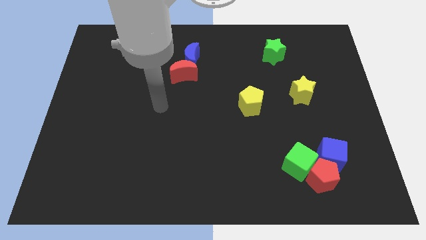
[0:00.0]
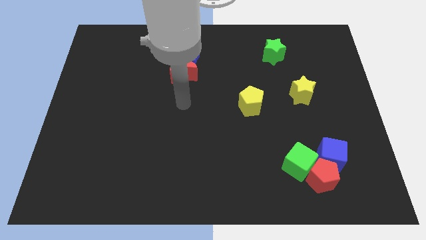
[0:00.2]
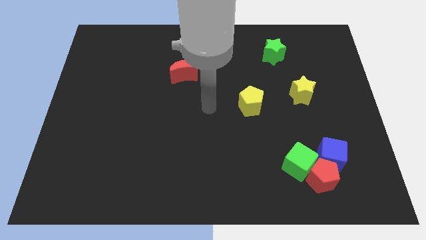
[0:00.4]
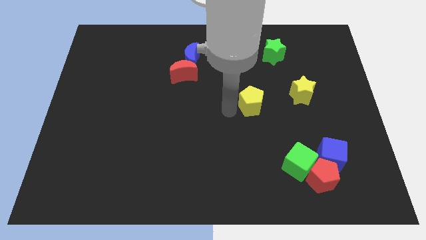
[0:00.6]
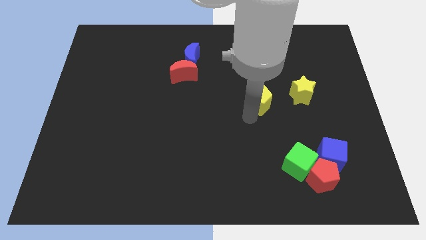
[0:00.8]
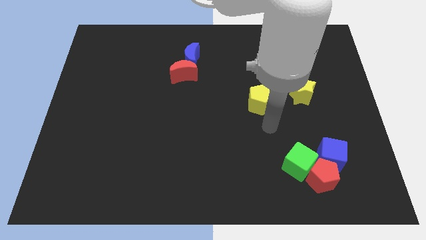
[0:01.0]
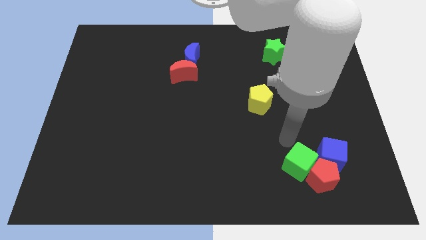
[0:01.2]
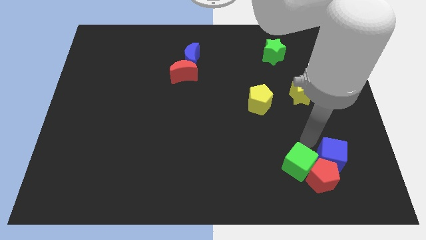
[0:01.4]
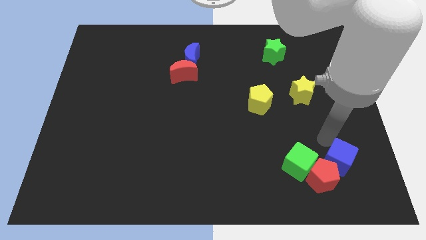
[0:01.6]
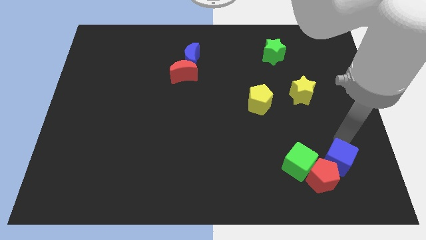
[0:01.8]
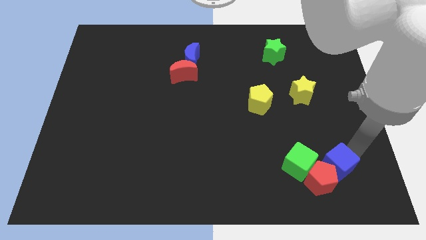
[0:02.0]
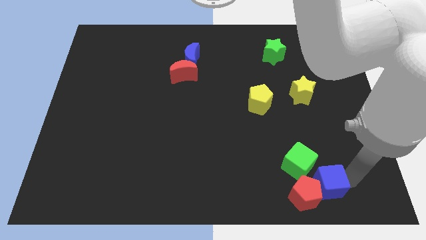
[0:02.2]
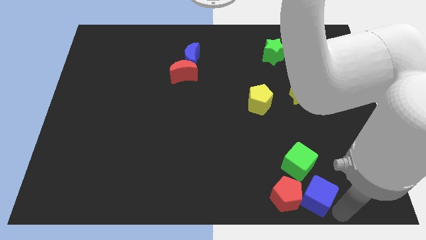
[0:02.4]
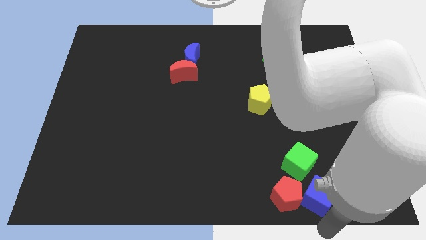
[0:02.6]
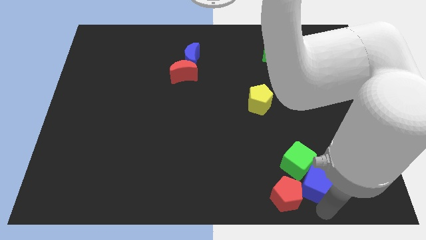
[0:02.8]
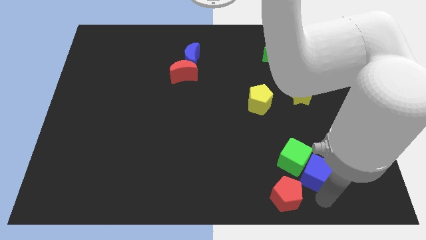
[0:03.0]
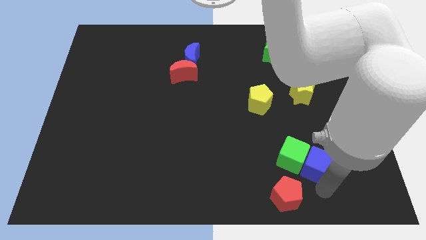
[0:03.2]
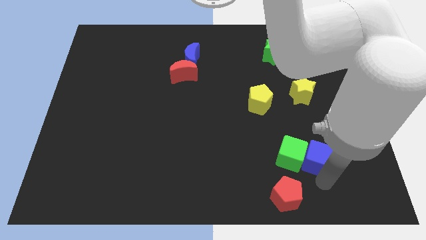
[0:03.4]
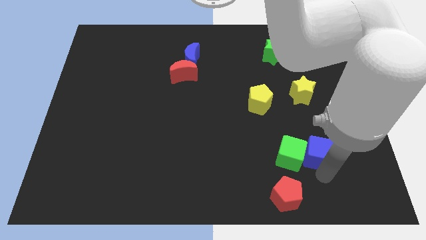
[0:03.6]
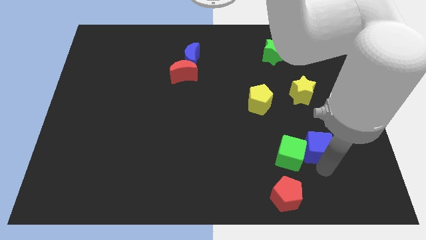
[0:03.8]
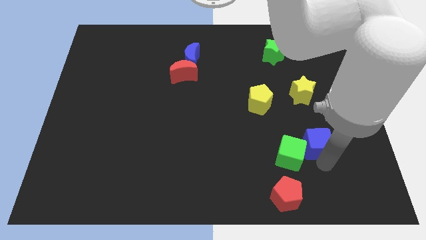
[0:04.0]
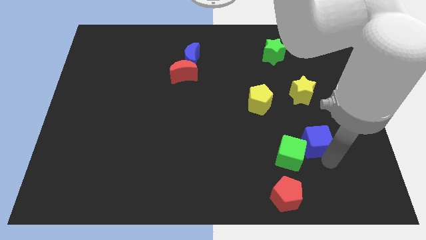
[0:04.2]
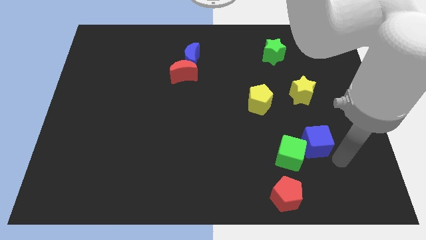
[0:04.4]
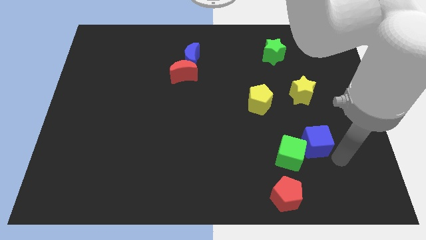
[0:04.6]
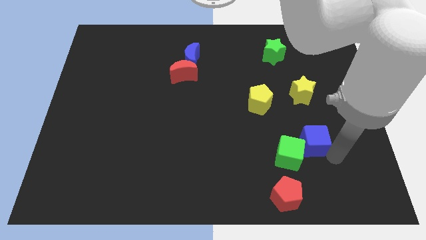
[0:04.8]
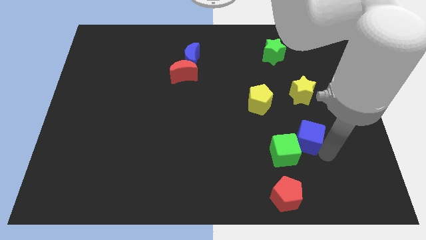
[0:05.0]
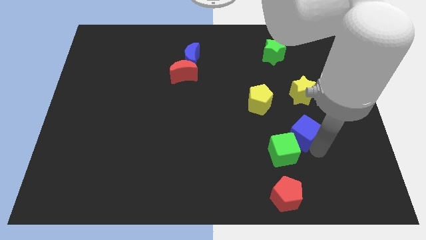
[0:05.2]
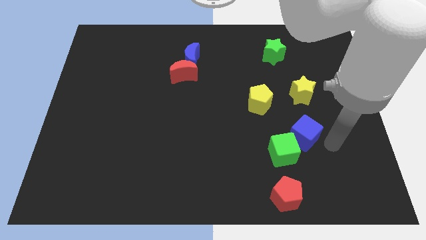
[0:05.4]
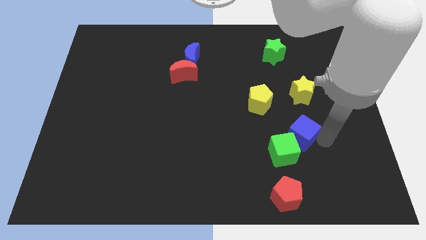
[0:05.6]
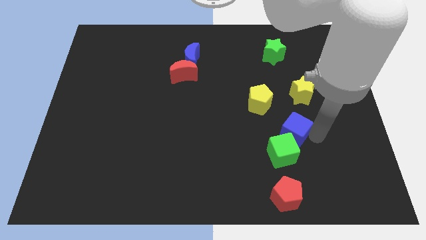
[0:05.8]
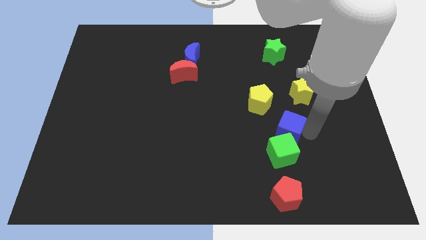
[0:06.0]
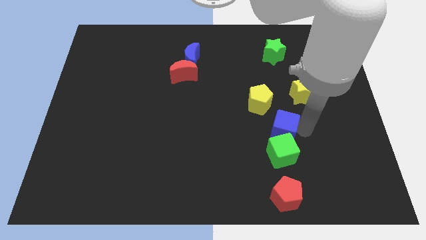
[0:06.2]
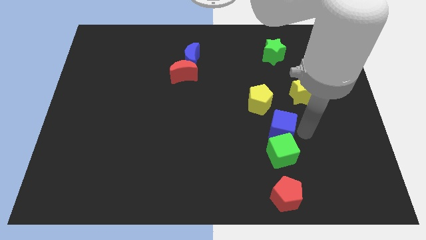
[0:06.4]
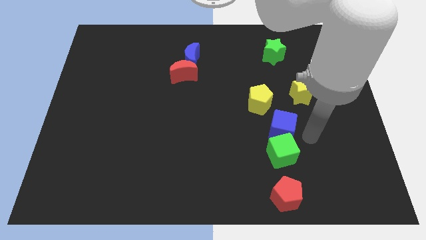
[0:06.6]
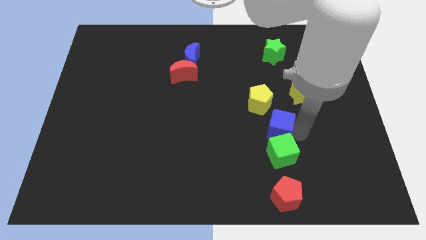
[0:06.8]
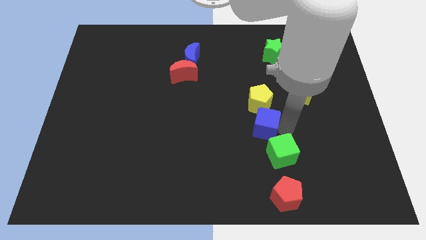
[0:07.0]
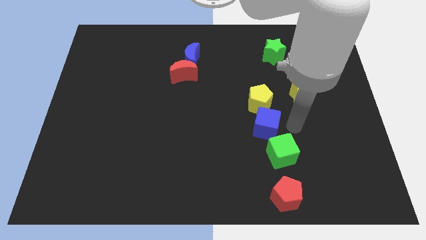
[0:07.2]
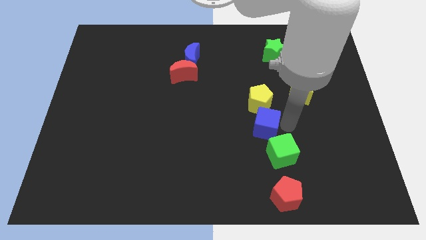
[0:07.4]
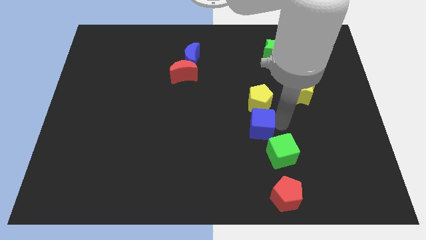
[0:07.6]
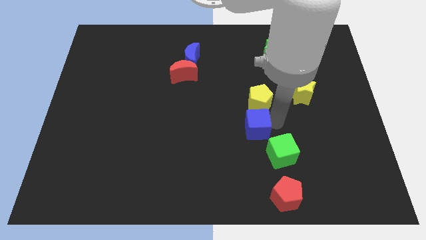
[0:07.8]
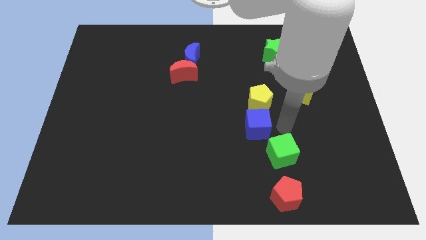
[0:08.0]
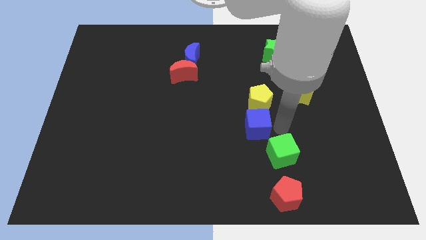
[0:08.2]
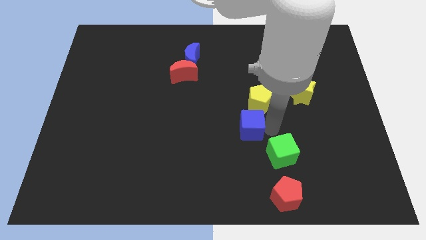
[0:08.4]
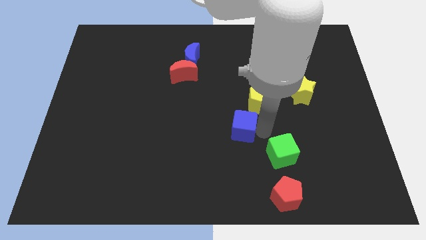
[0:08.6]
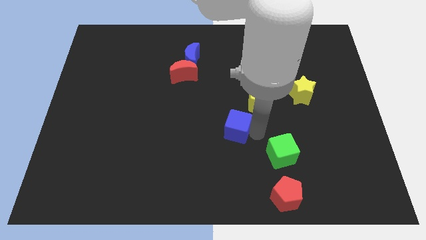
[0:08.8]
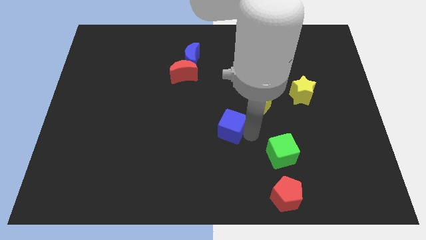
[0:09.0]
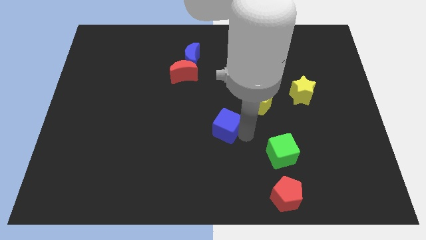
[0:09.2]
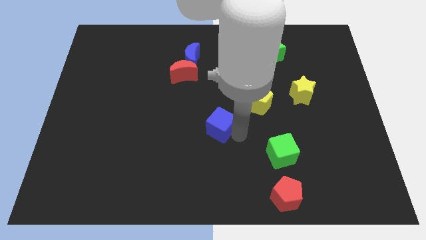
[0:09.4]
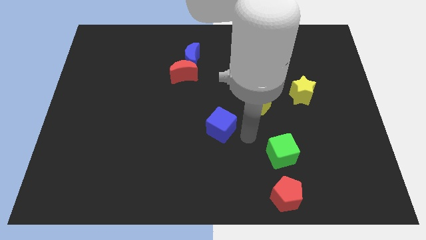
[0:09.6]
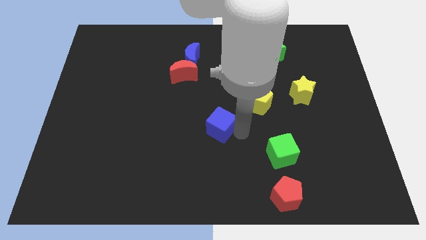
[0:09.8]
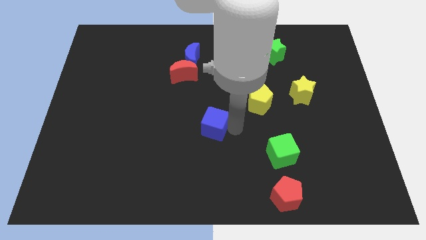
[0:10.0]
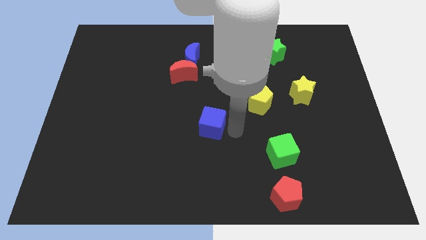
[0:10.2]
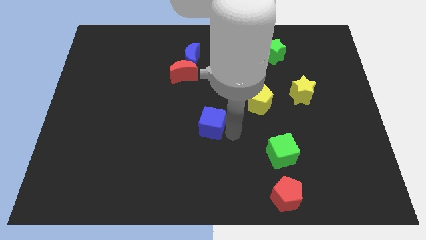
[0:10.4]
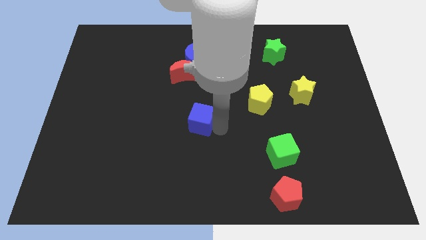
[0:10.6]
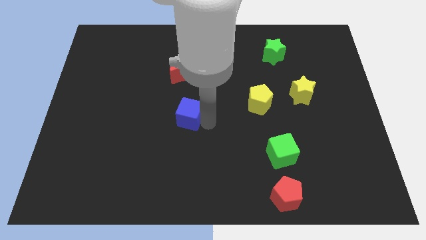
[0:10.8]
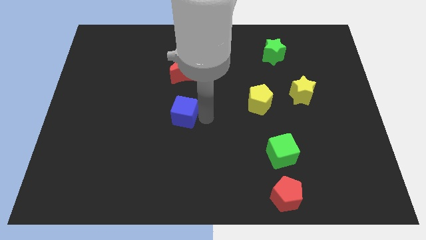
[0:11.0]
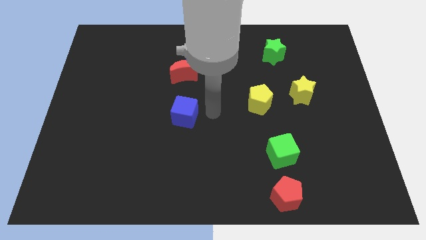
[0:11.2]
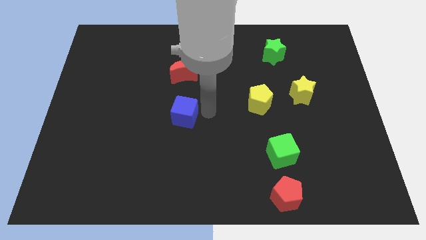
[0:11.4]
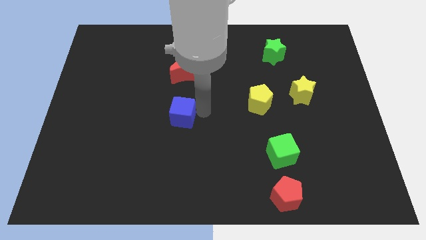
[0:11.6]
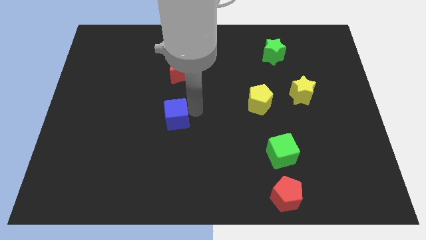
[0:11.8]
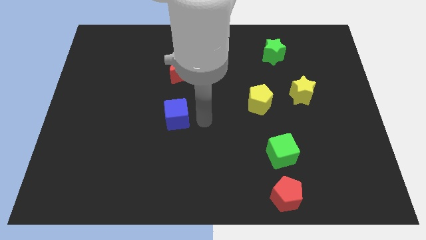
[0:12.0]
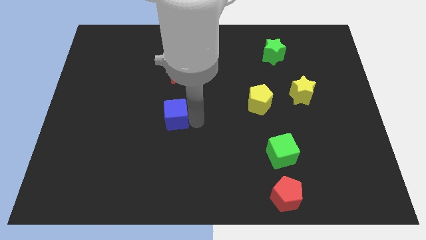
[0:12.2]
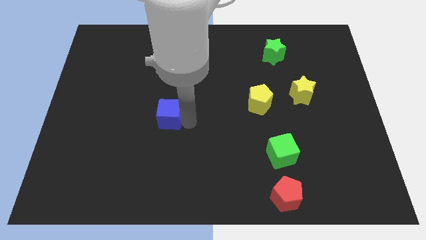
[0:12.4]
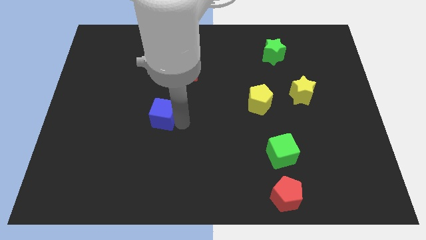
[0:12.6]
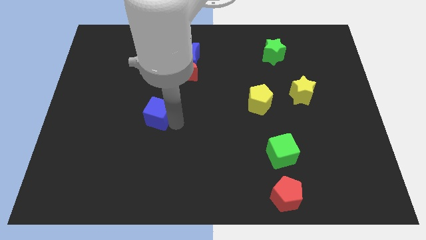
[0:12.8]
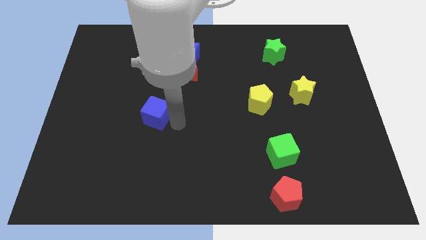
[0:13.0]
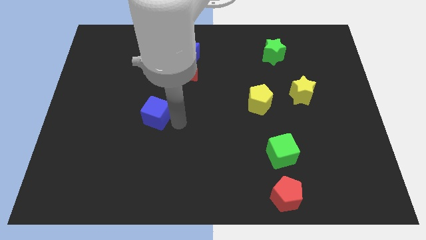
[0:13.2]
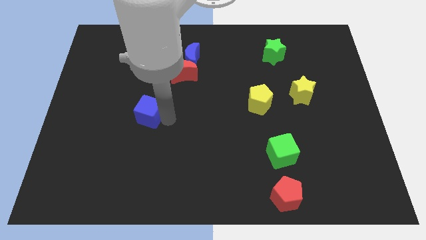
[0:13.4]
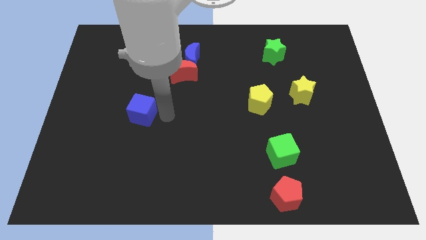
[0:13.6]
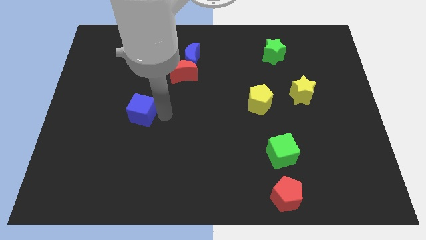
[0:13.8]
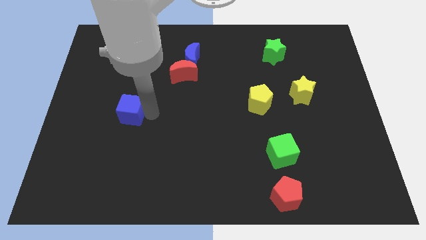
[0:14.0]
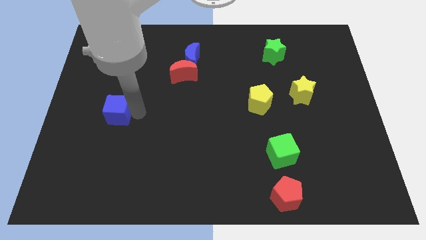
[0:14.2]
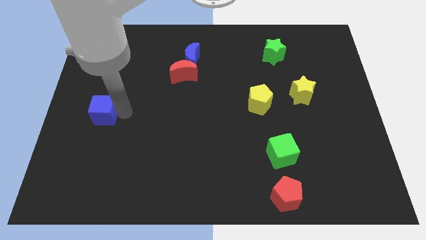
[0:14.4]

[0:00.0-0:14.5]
put the blue cube to the center left
